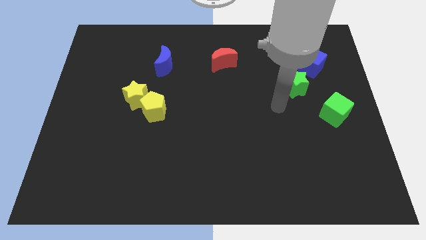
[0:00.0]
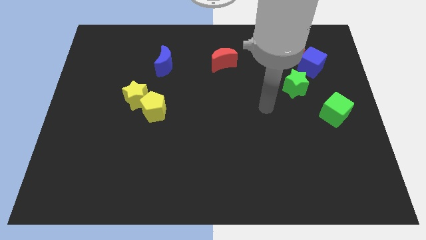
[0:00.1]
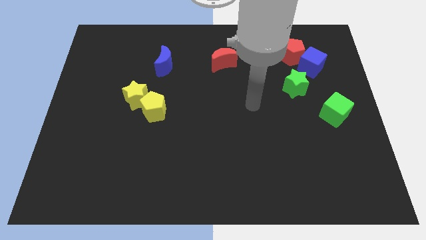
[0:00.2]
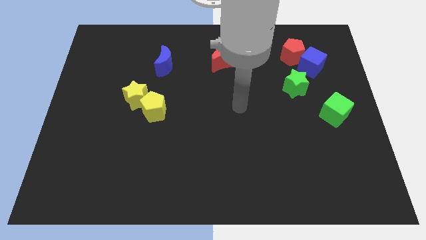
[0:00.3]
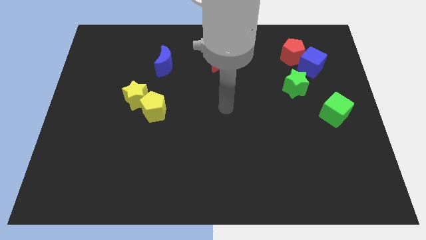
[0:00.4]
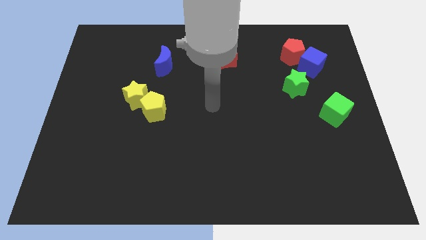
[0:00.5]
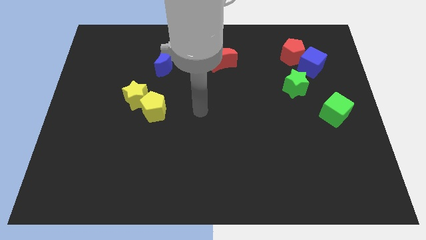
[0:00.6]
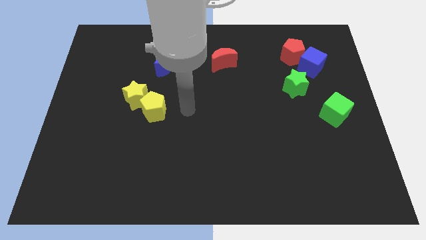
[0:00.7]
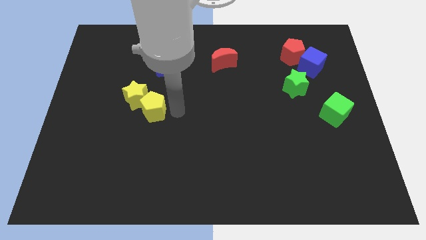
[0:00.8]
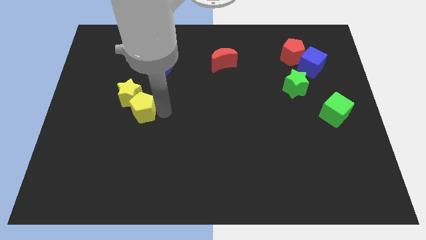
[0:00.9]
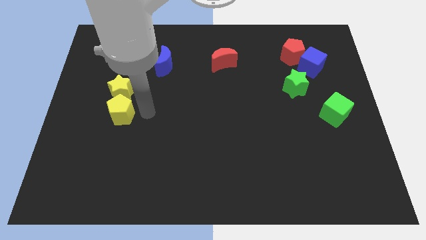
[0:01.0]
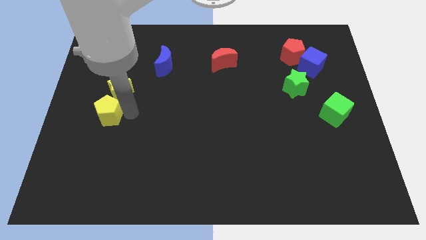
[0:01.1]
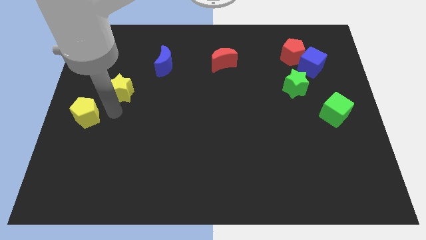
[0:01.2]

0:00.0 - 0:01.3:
move the yellow star away from the yellow pentagon

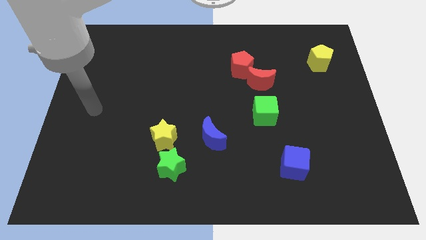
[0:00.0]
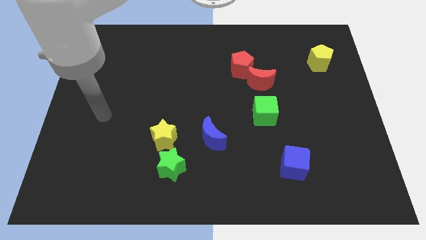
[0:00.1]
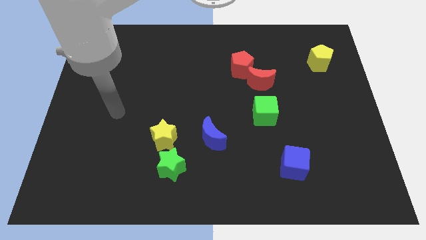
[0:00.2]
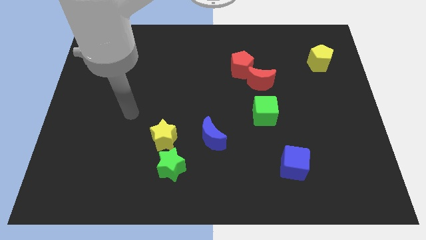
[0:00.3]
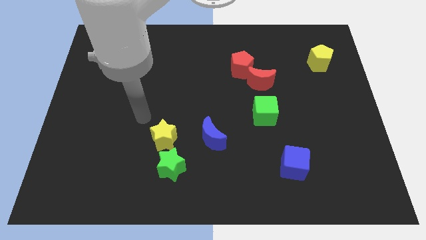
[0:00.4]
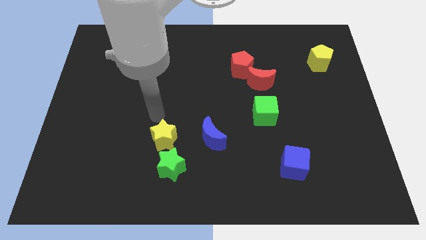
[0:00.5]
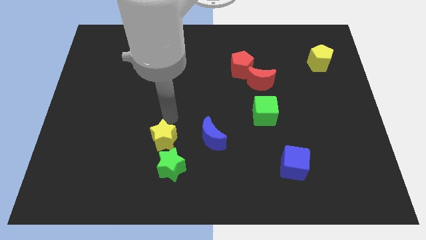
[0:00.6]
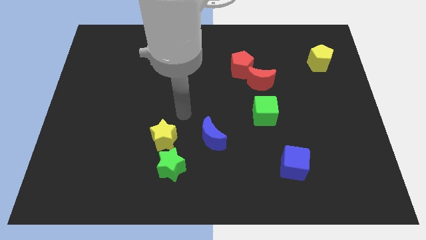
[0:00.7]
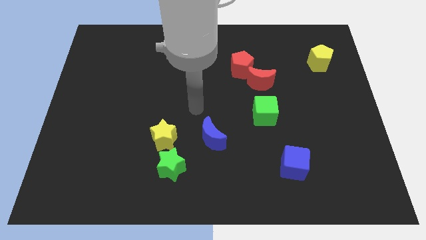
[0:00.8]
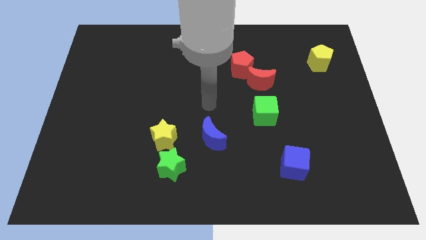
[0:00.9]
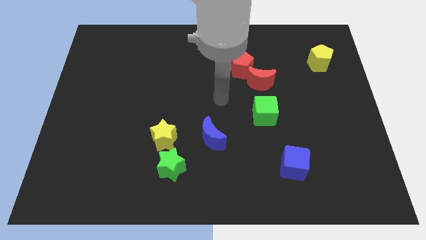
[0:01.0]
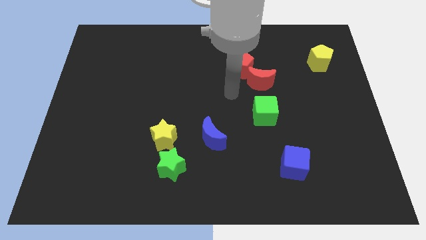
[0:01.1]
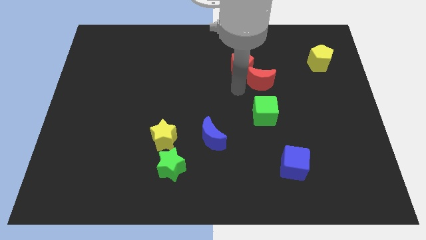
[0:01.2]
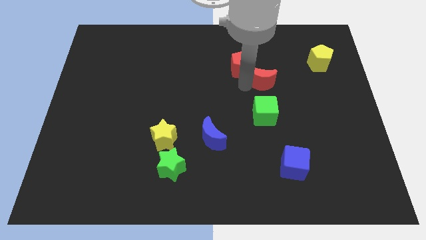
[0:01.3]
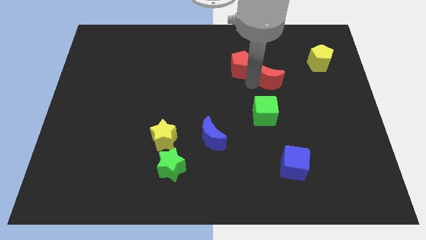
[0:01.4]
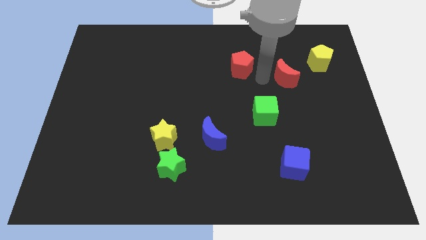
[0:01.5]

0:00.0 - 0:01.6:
separate the red pentagon from the red moon

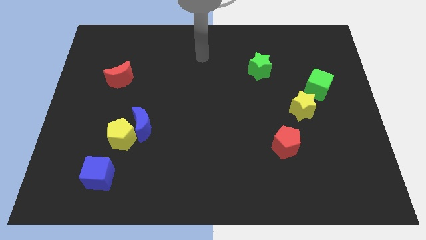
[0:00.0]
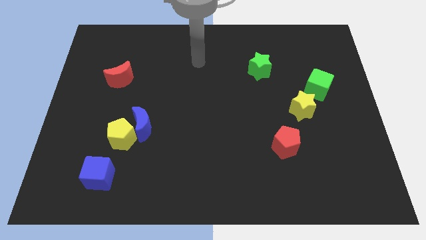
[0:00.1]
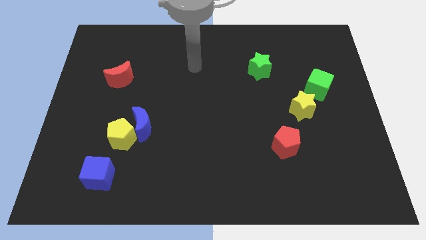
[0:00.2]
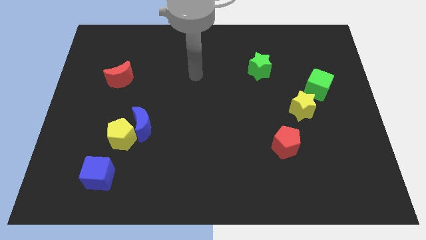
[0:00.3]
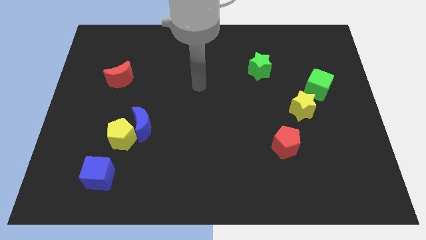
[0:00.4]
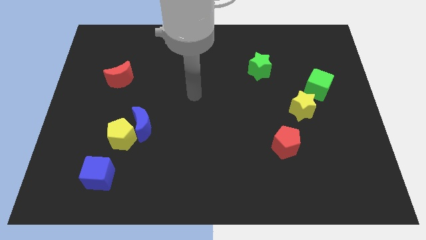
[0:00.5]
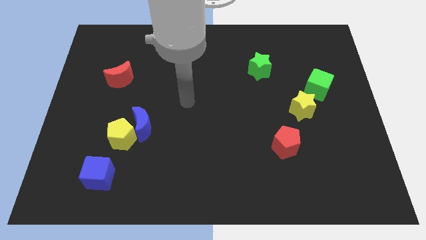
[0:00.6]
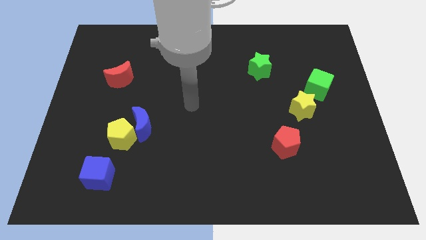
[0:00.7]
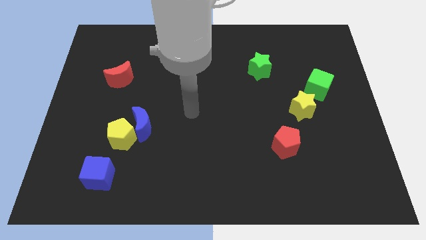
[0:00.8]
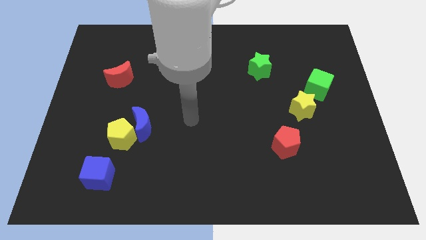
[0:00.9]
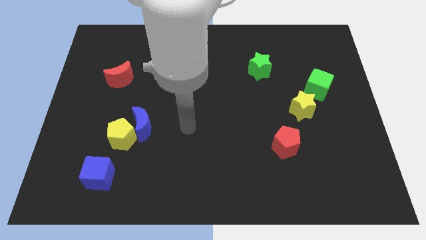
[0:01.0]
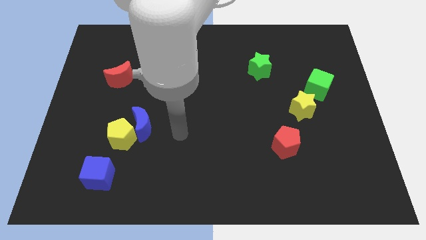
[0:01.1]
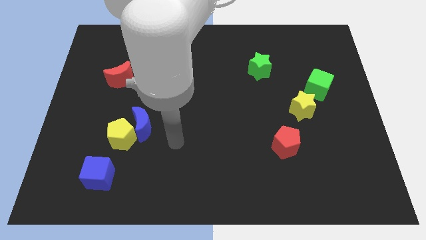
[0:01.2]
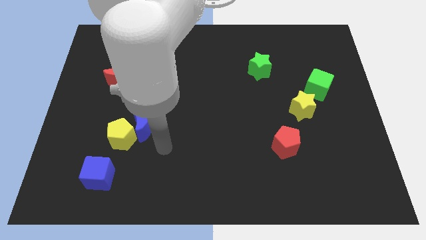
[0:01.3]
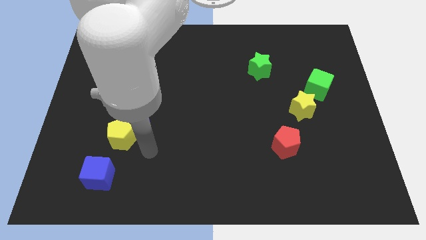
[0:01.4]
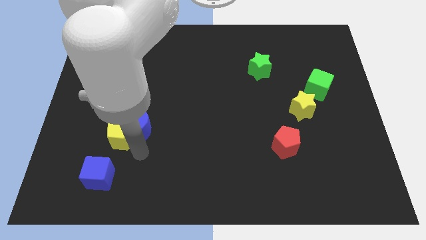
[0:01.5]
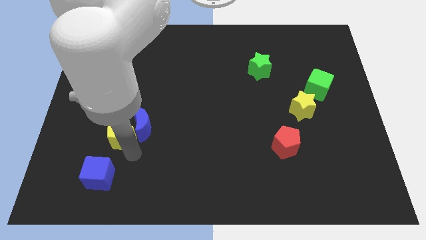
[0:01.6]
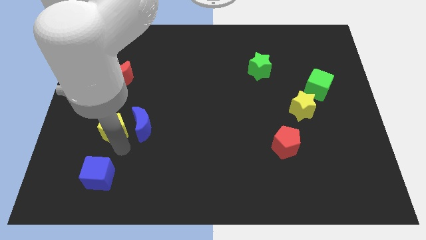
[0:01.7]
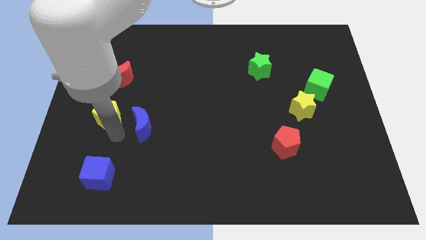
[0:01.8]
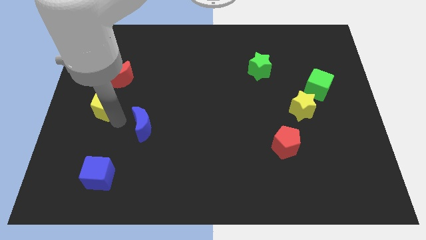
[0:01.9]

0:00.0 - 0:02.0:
pull the blue moon apart from the yellow pentagon

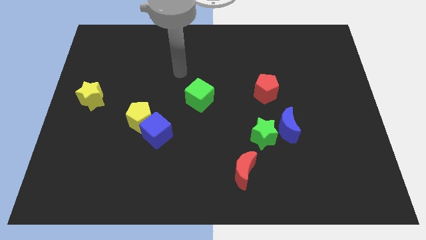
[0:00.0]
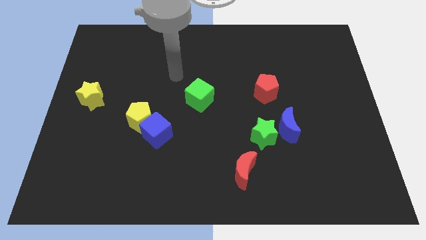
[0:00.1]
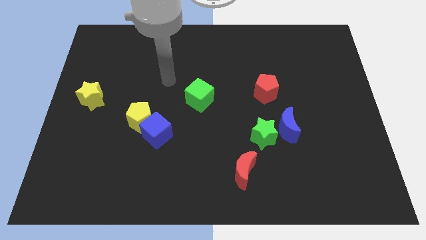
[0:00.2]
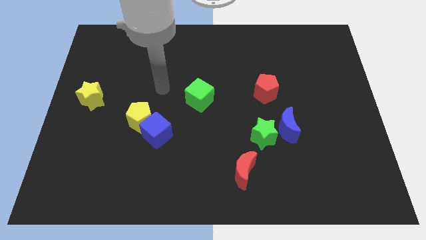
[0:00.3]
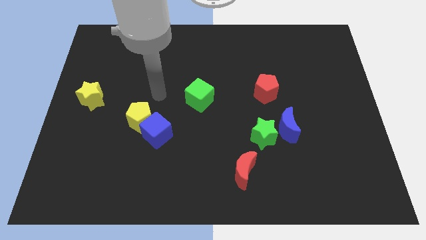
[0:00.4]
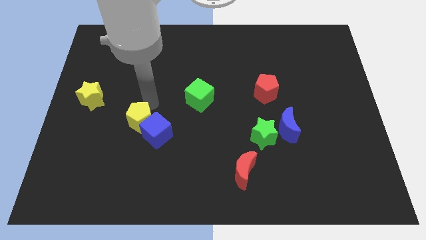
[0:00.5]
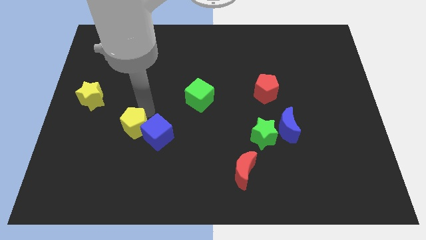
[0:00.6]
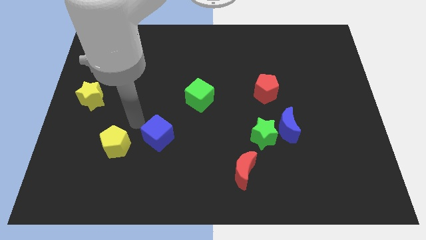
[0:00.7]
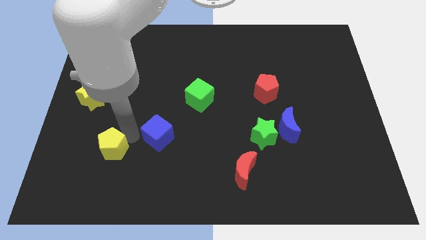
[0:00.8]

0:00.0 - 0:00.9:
separate the blue cube from the yellow pentagon

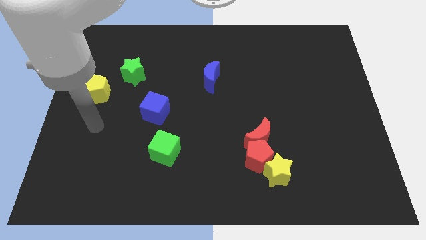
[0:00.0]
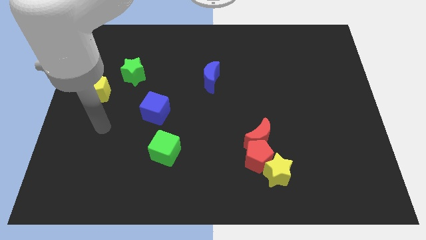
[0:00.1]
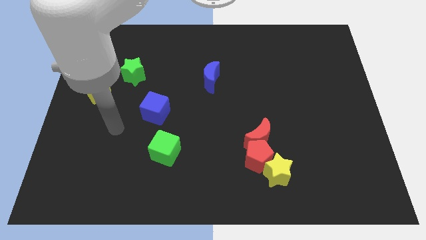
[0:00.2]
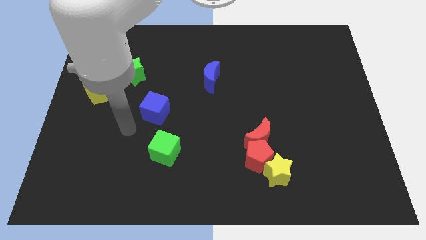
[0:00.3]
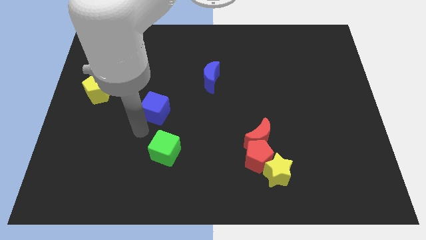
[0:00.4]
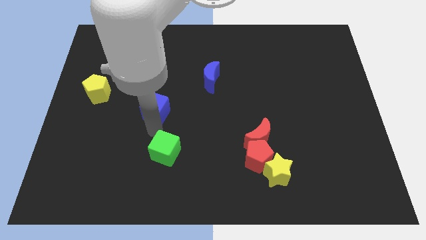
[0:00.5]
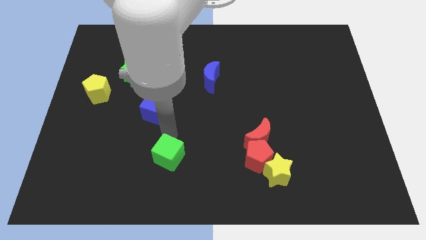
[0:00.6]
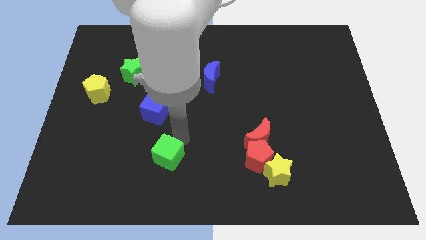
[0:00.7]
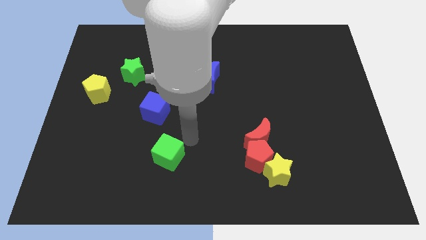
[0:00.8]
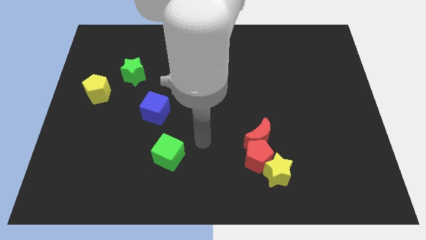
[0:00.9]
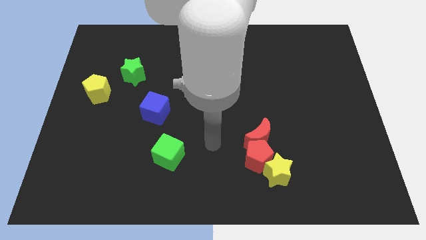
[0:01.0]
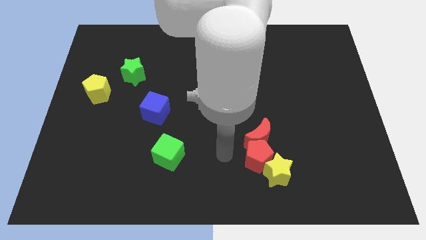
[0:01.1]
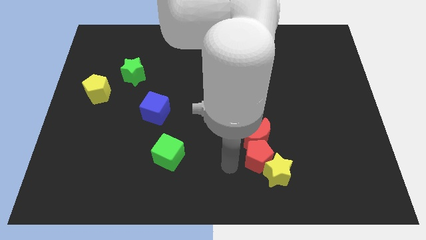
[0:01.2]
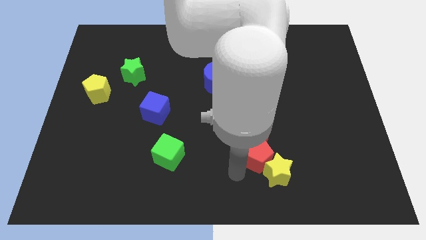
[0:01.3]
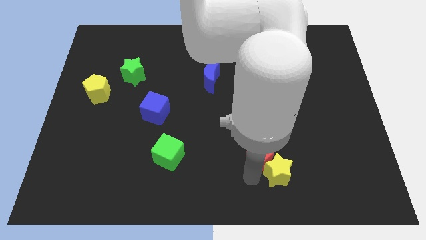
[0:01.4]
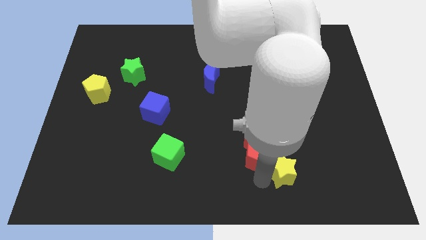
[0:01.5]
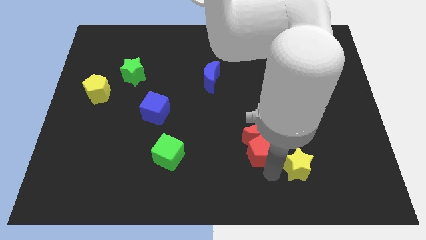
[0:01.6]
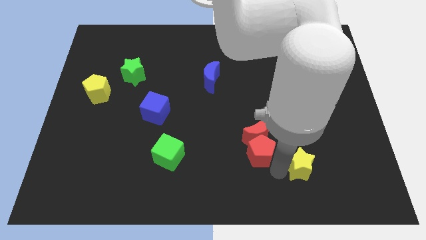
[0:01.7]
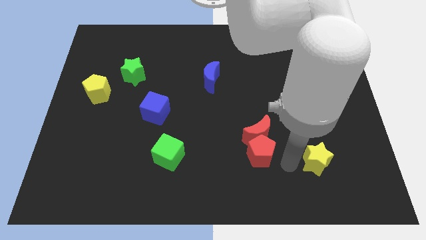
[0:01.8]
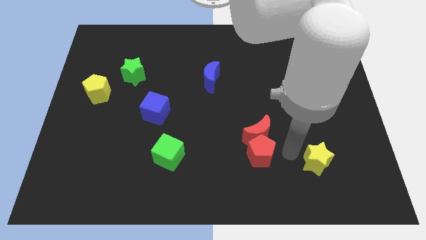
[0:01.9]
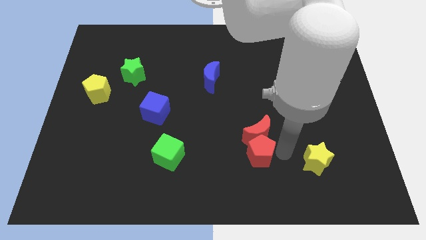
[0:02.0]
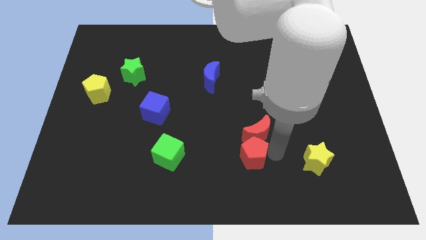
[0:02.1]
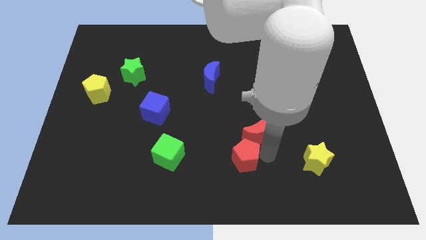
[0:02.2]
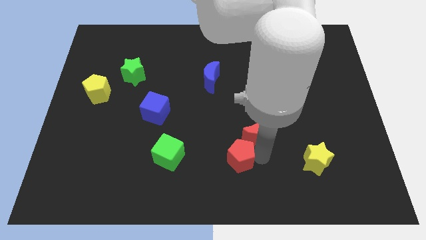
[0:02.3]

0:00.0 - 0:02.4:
pull the red pentagon apart from the yellow star and red moon

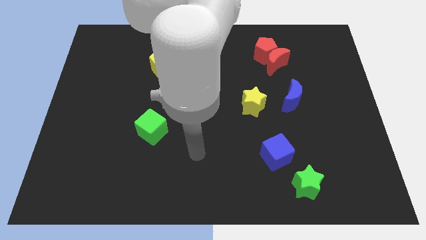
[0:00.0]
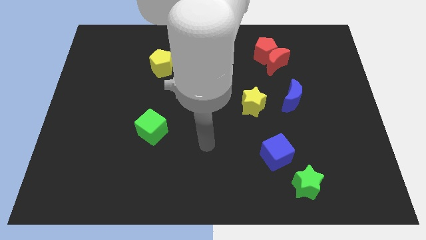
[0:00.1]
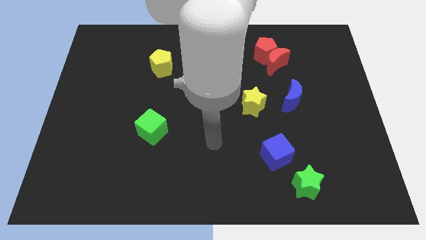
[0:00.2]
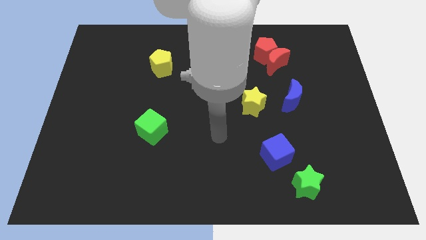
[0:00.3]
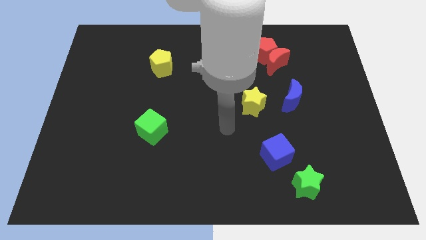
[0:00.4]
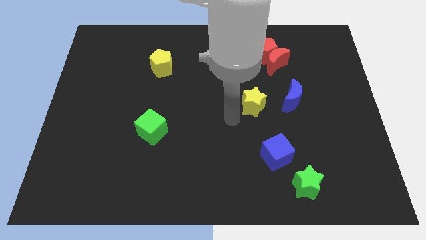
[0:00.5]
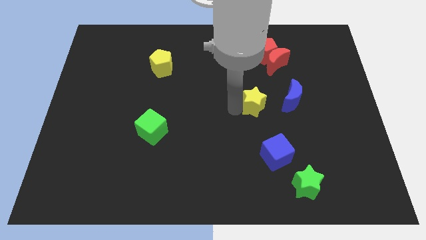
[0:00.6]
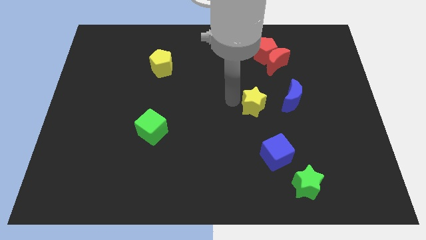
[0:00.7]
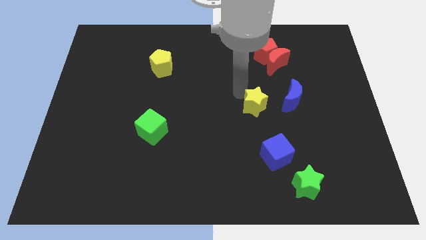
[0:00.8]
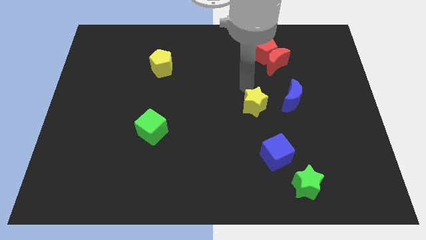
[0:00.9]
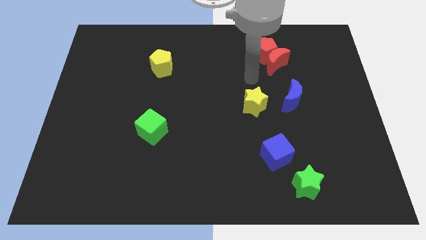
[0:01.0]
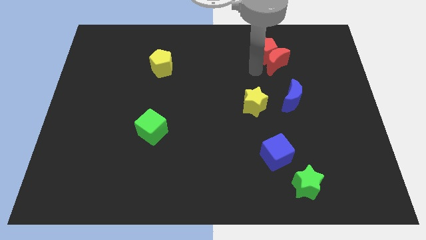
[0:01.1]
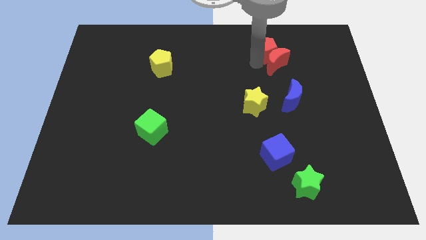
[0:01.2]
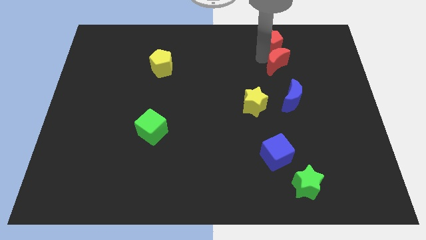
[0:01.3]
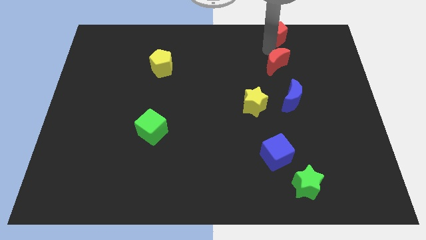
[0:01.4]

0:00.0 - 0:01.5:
move the red moon away from the red pentagon
